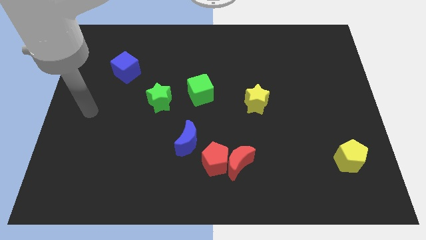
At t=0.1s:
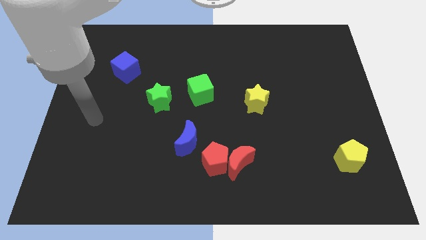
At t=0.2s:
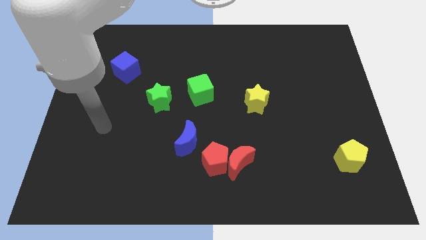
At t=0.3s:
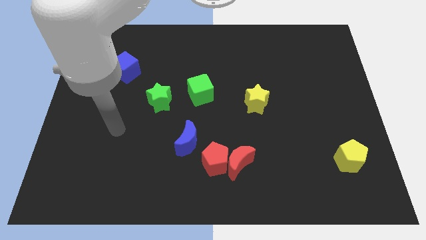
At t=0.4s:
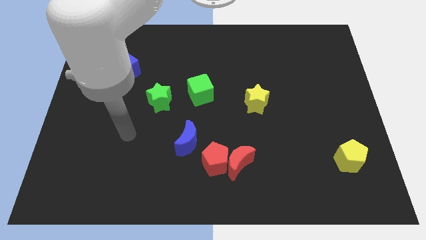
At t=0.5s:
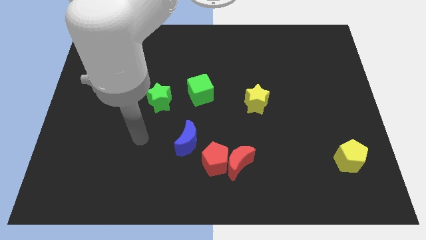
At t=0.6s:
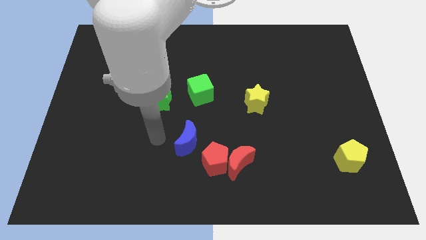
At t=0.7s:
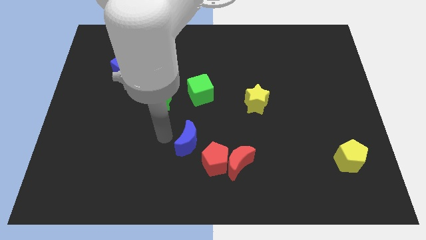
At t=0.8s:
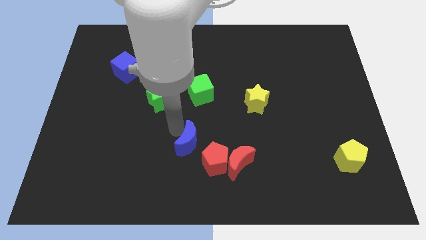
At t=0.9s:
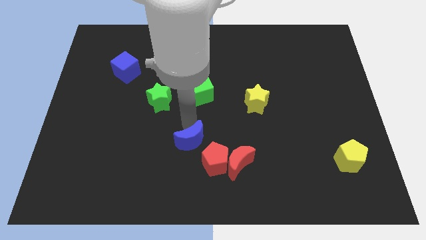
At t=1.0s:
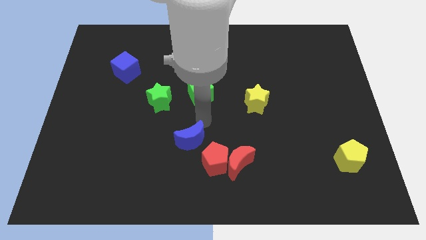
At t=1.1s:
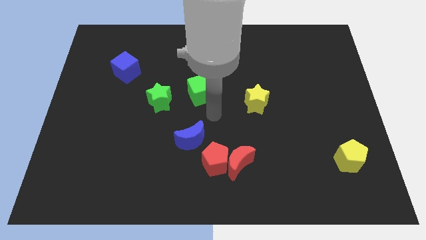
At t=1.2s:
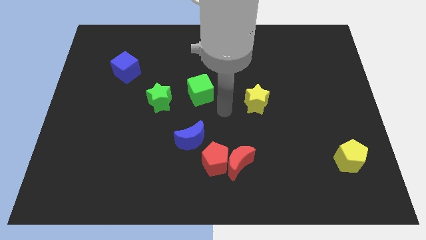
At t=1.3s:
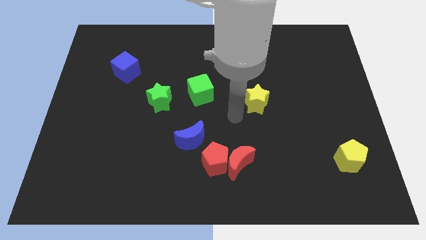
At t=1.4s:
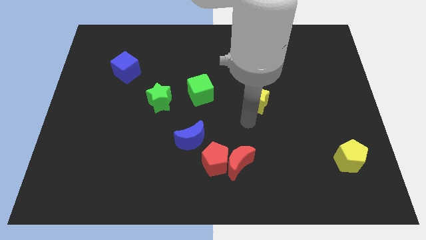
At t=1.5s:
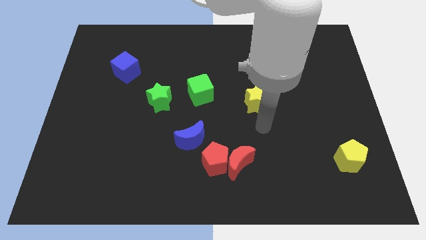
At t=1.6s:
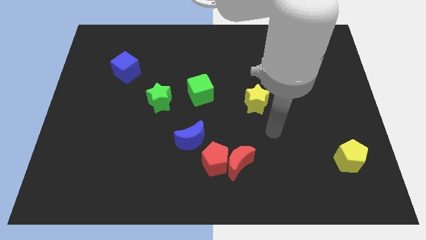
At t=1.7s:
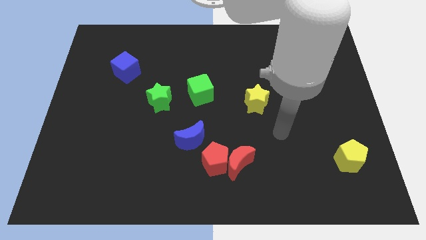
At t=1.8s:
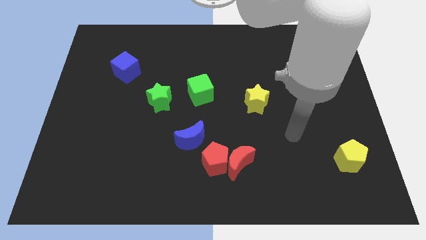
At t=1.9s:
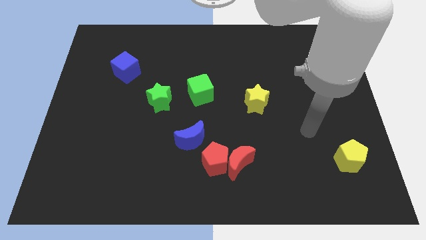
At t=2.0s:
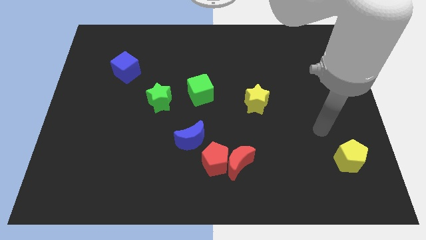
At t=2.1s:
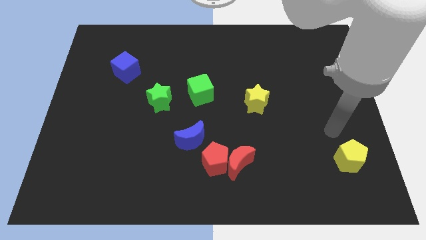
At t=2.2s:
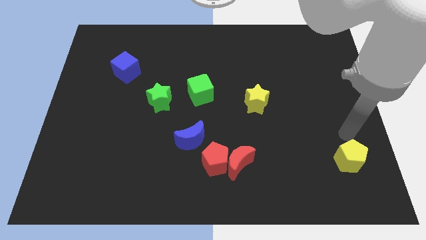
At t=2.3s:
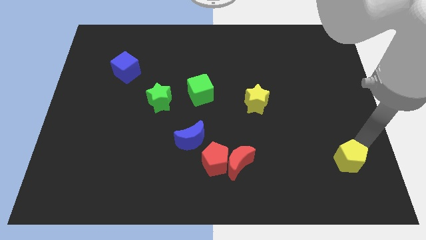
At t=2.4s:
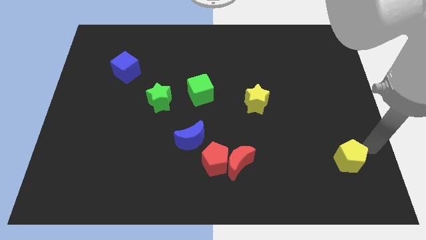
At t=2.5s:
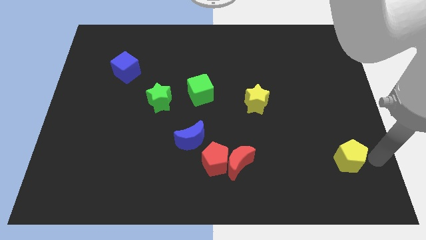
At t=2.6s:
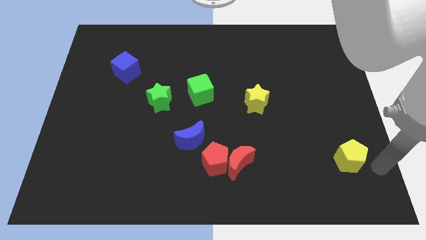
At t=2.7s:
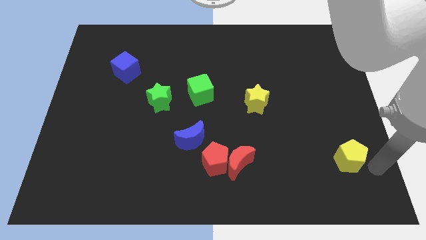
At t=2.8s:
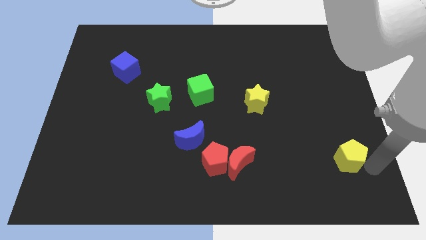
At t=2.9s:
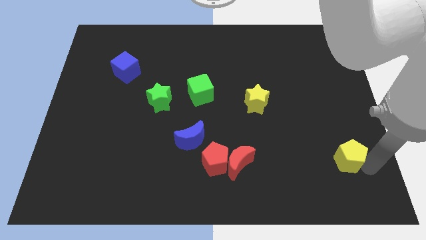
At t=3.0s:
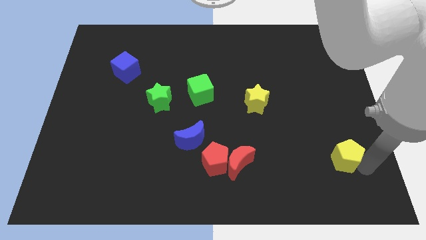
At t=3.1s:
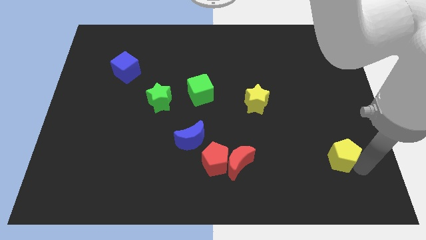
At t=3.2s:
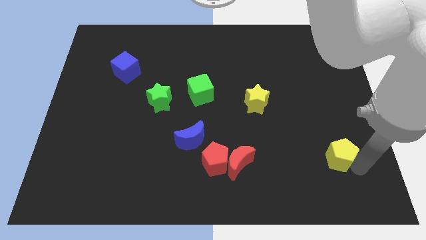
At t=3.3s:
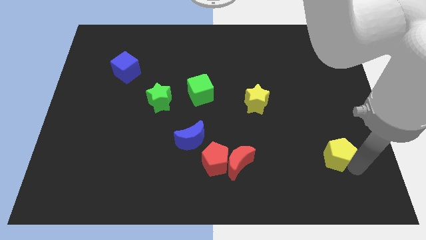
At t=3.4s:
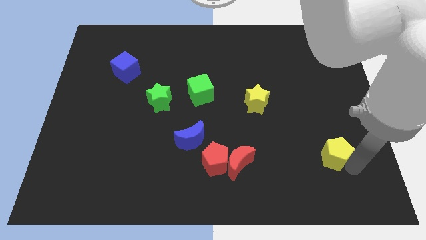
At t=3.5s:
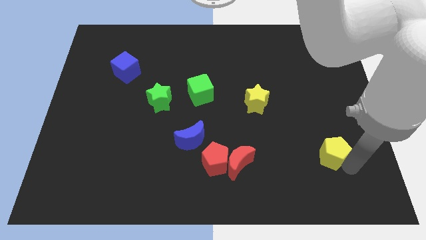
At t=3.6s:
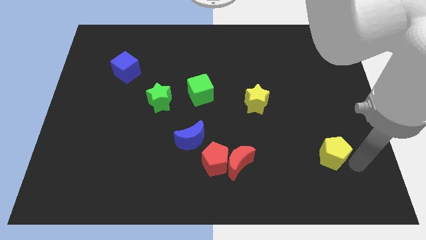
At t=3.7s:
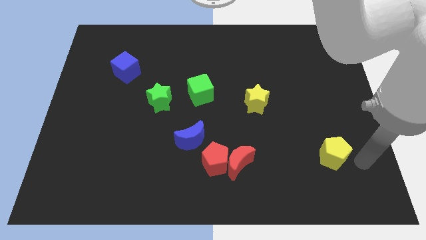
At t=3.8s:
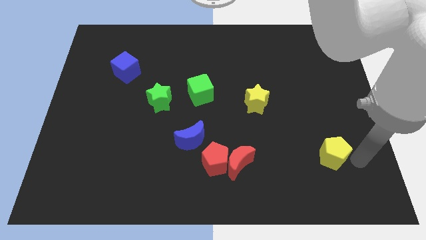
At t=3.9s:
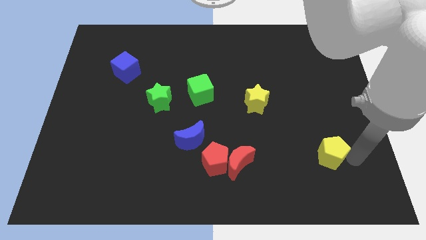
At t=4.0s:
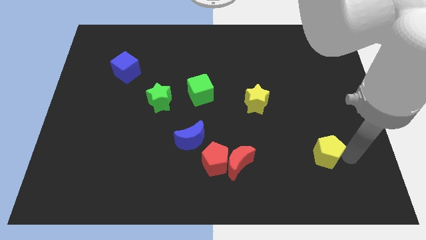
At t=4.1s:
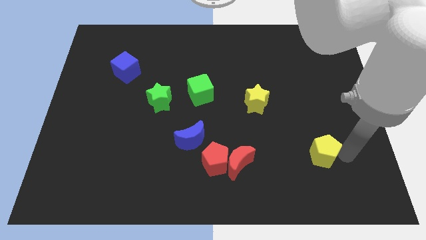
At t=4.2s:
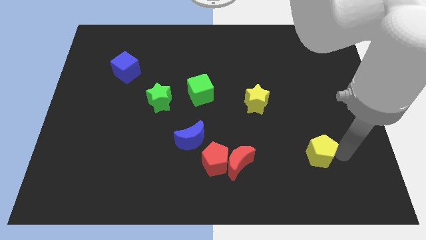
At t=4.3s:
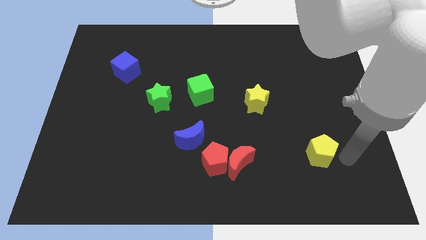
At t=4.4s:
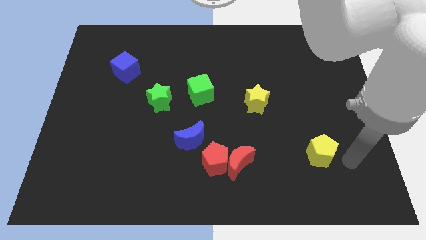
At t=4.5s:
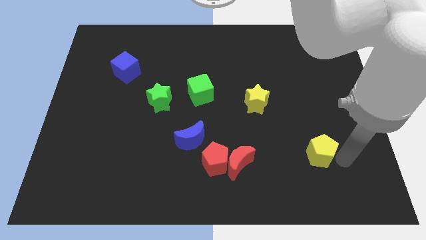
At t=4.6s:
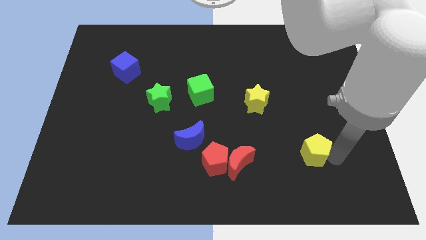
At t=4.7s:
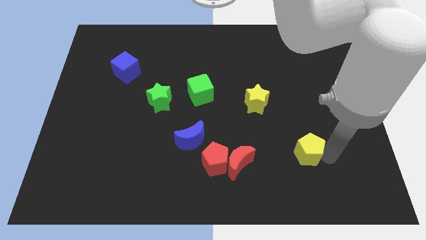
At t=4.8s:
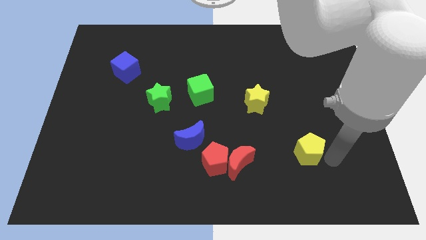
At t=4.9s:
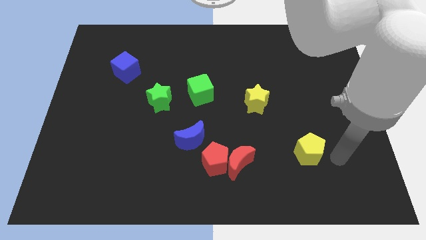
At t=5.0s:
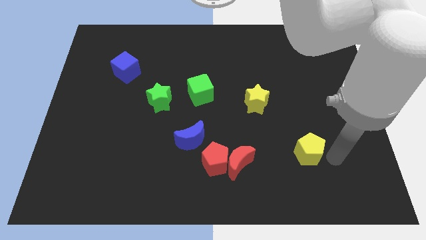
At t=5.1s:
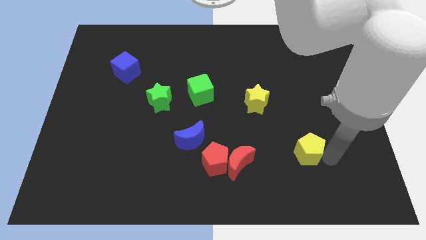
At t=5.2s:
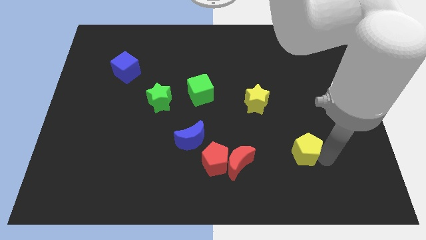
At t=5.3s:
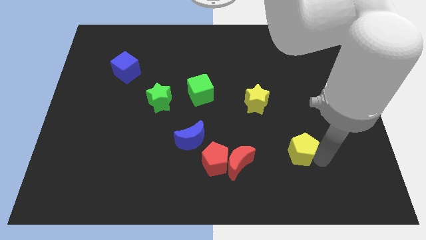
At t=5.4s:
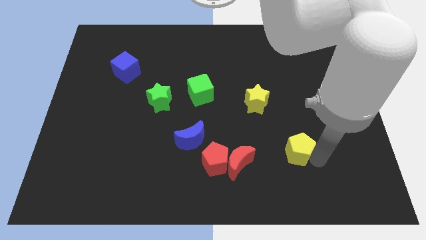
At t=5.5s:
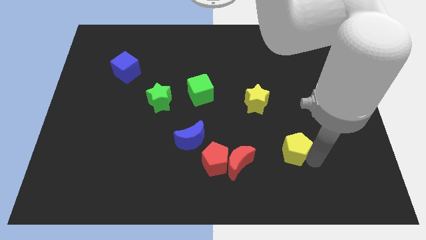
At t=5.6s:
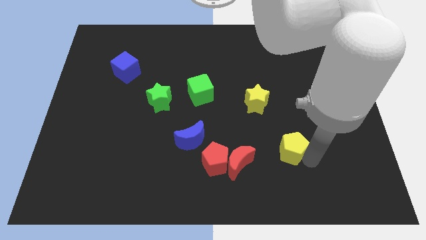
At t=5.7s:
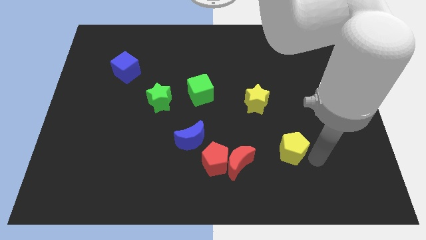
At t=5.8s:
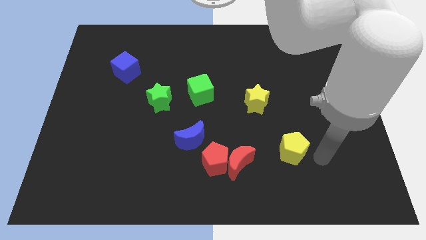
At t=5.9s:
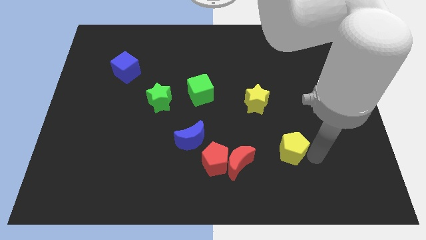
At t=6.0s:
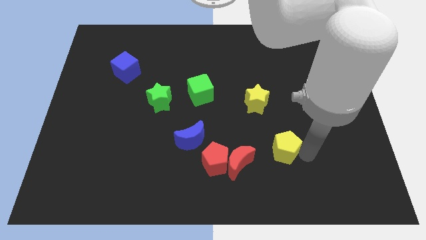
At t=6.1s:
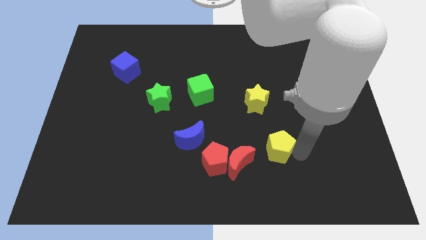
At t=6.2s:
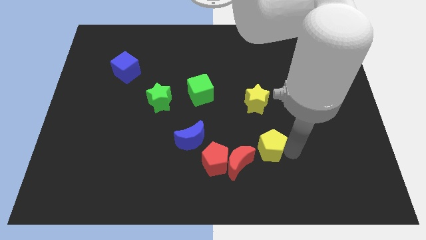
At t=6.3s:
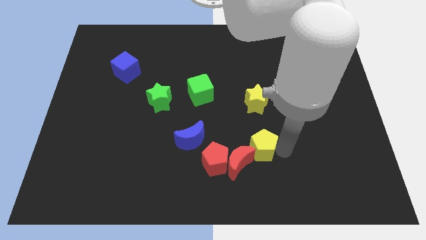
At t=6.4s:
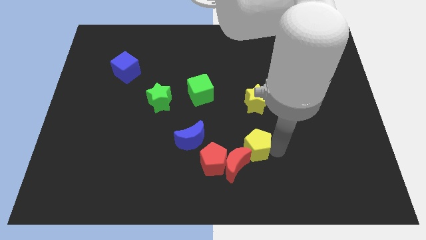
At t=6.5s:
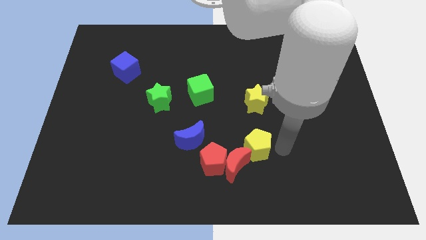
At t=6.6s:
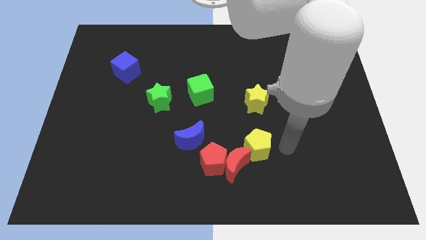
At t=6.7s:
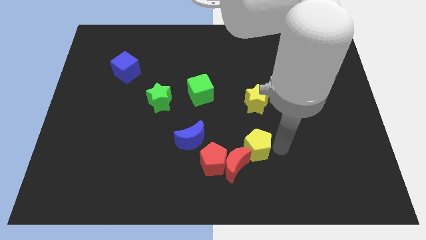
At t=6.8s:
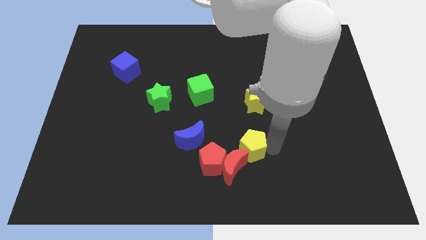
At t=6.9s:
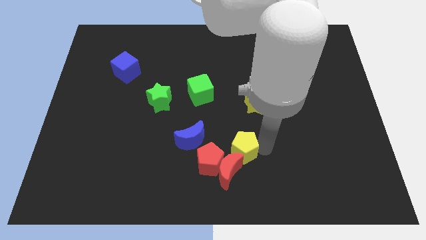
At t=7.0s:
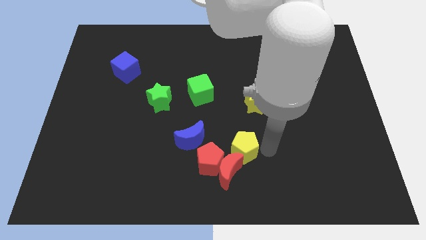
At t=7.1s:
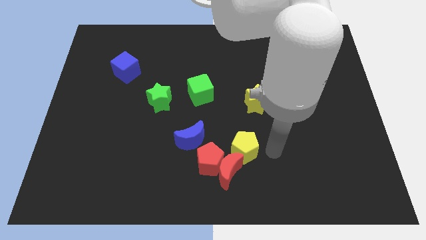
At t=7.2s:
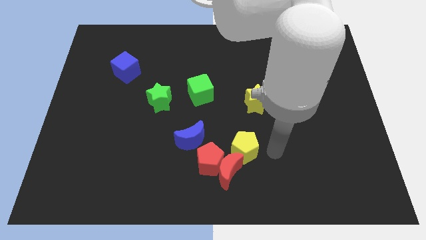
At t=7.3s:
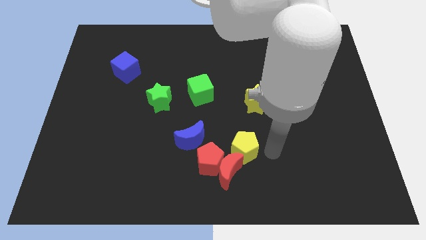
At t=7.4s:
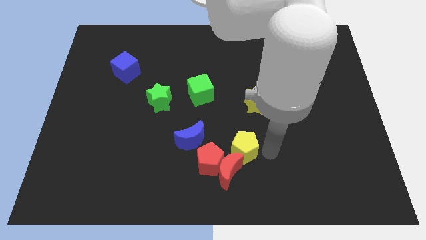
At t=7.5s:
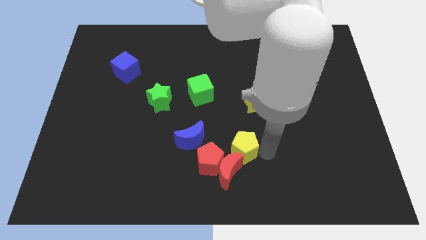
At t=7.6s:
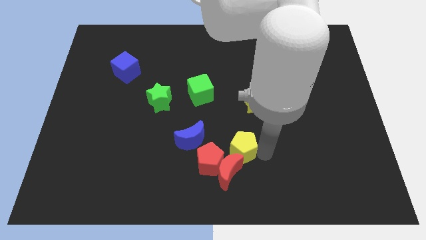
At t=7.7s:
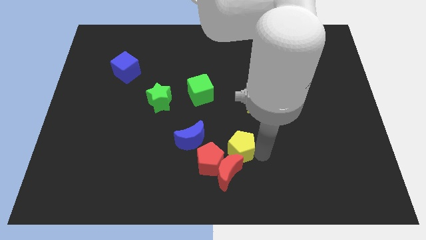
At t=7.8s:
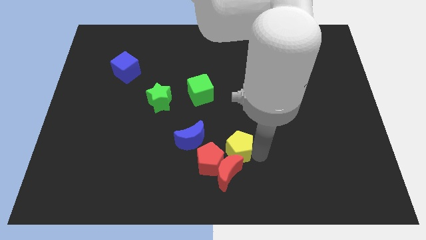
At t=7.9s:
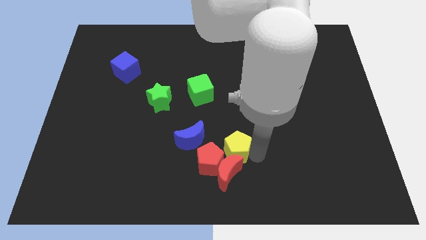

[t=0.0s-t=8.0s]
move the yellow pentagon towards the red pentagon
